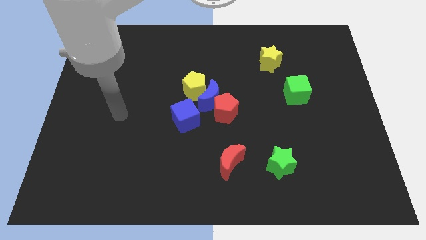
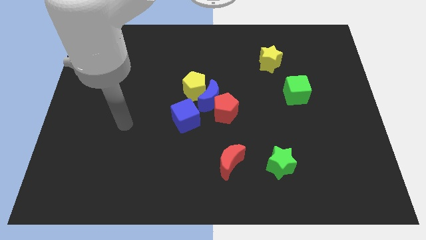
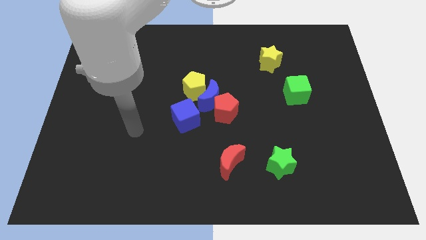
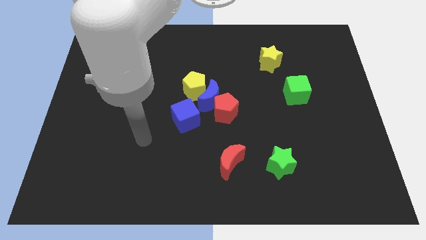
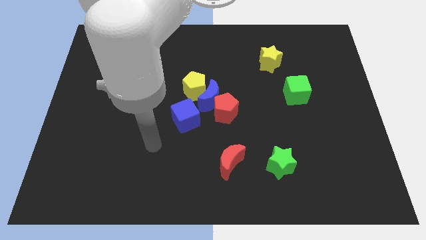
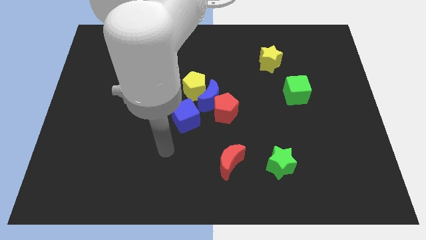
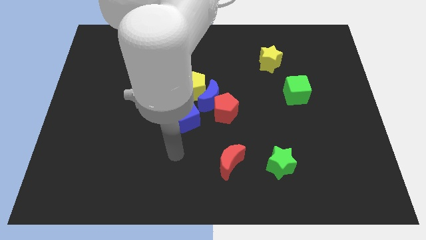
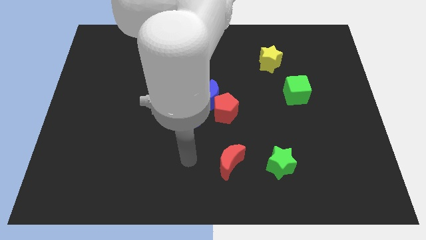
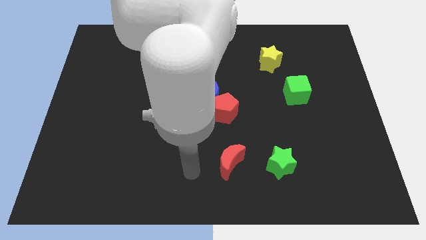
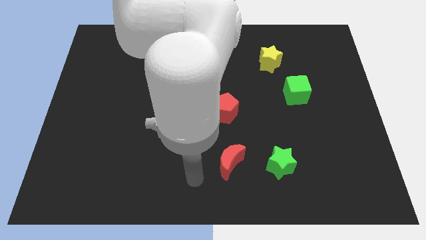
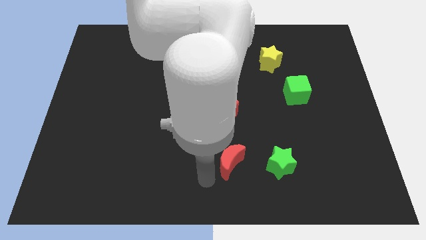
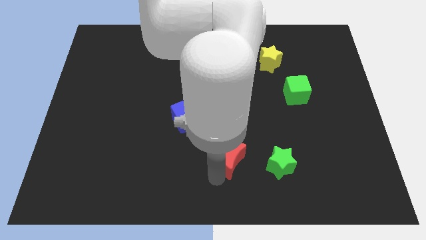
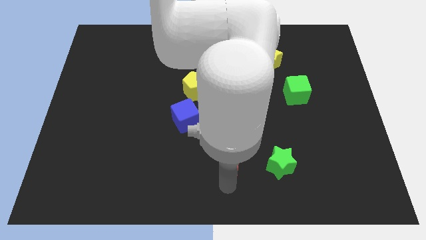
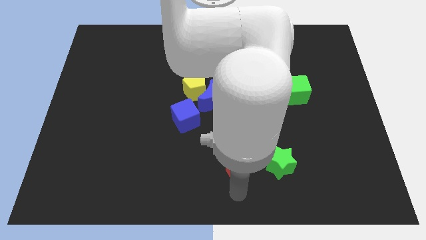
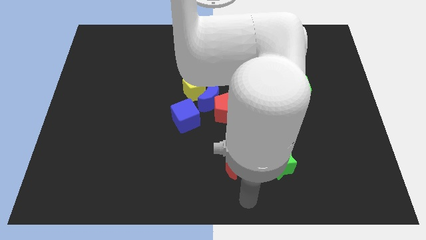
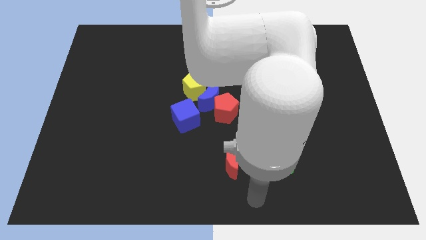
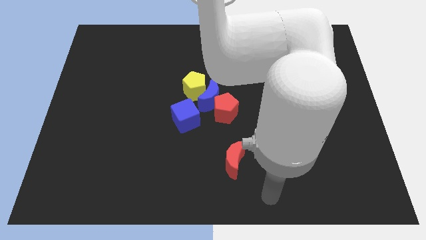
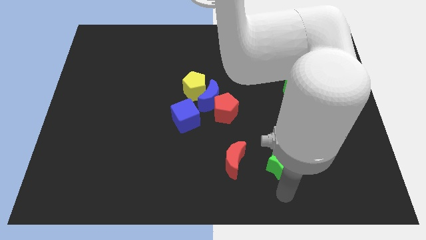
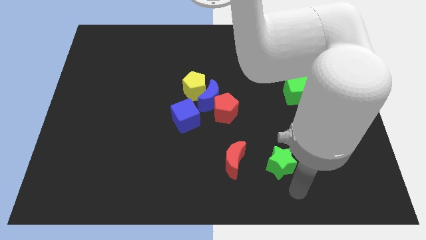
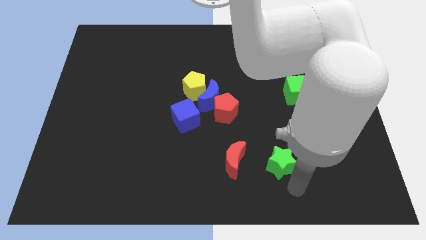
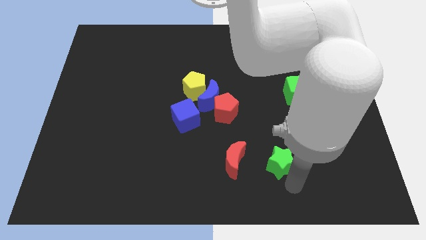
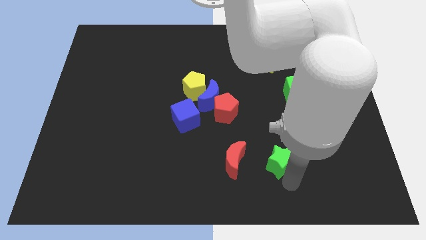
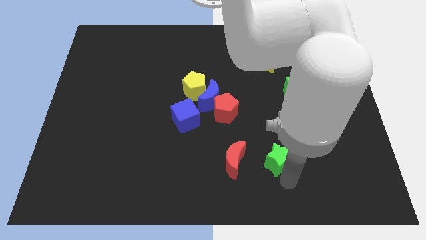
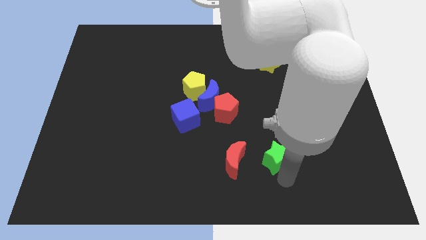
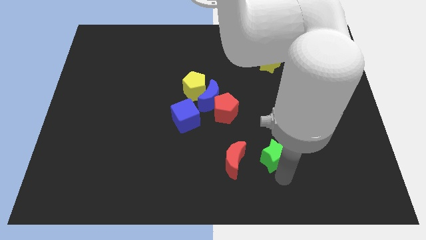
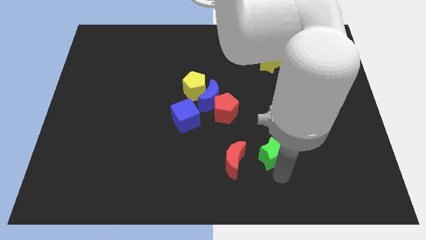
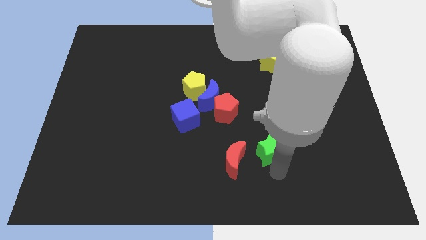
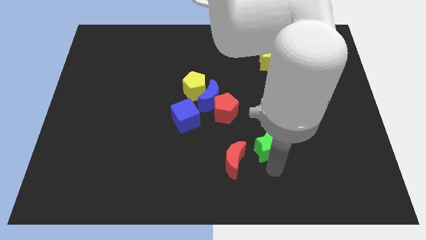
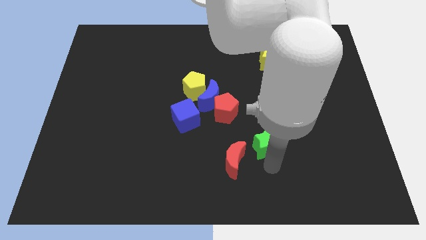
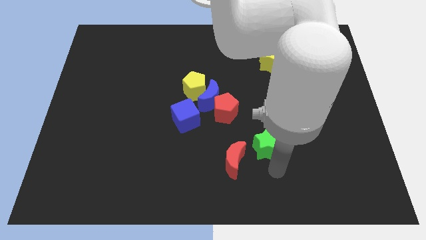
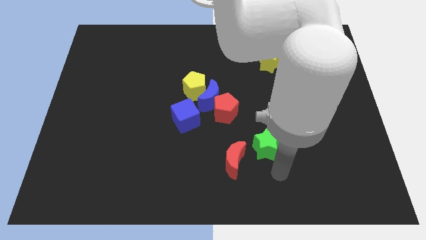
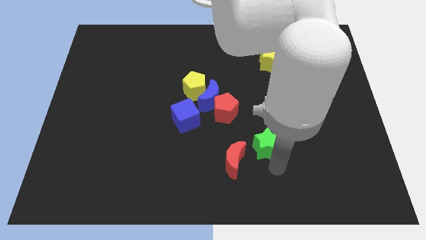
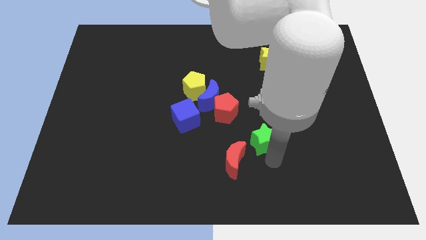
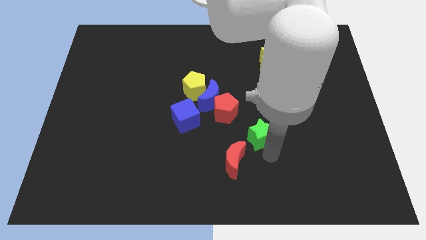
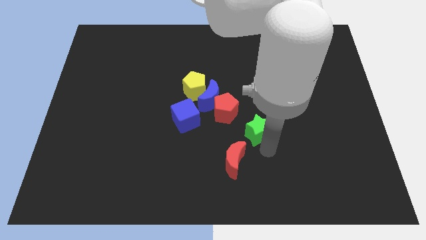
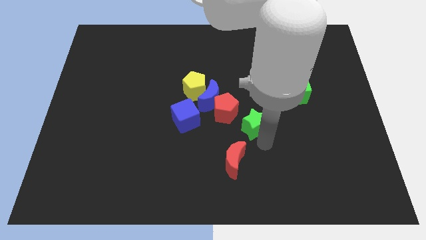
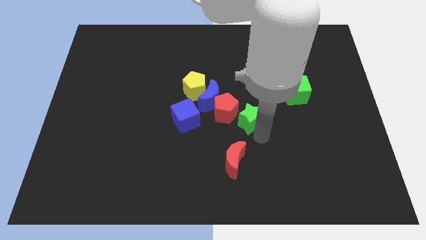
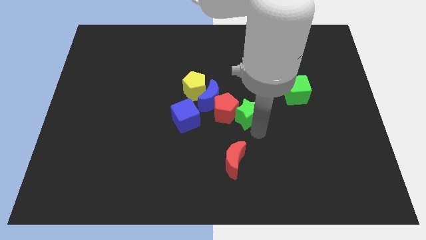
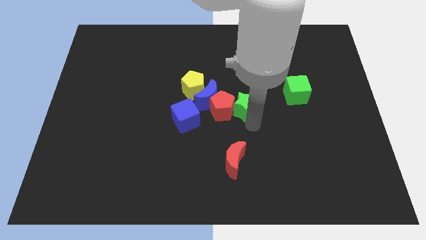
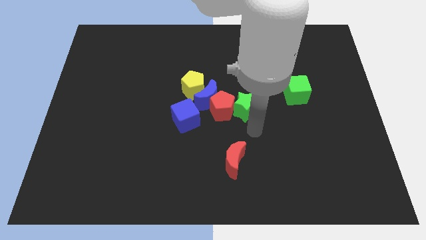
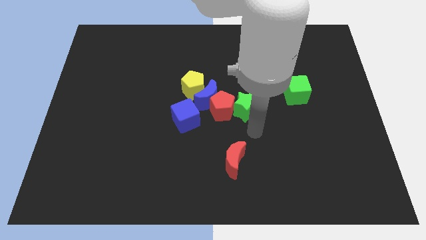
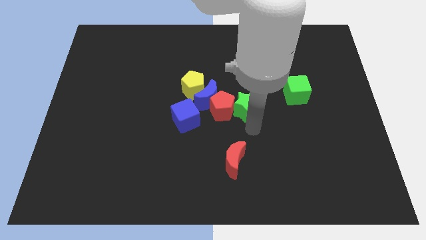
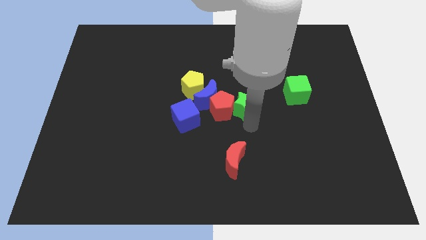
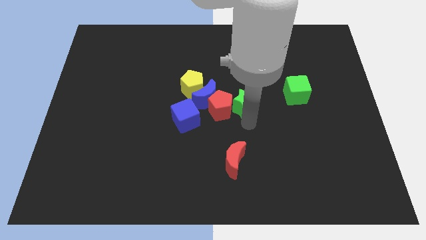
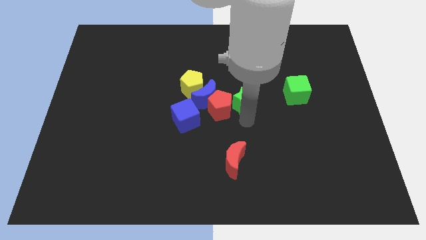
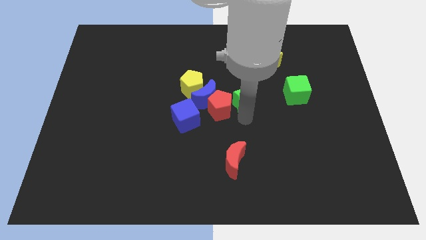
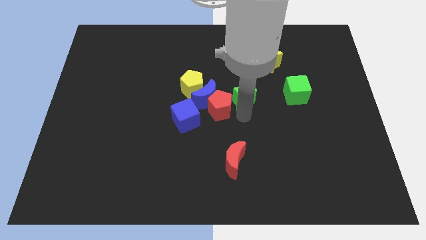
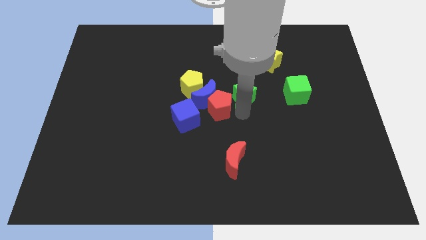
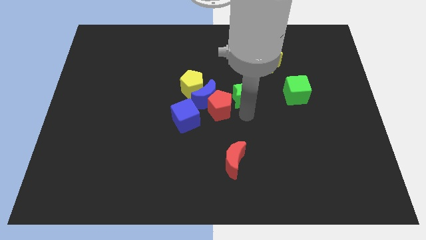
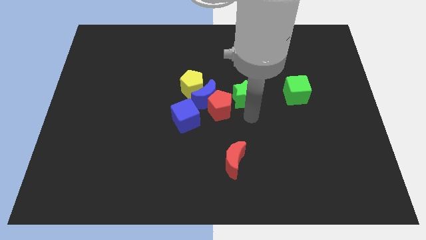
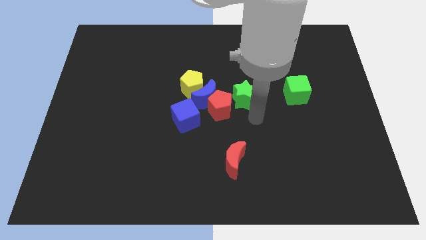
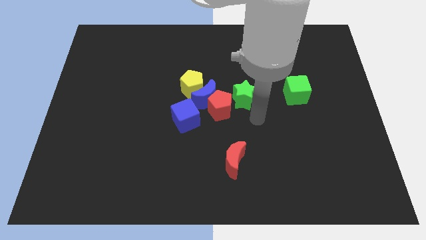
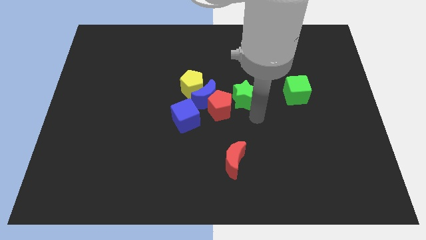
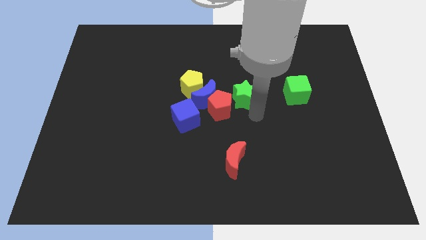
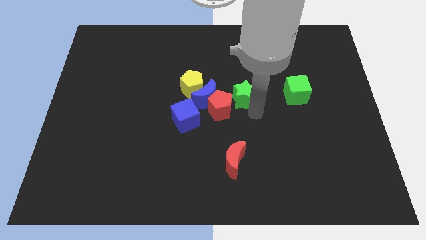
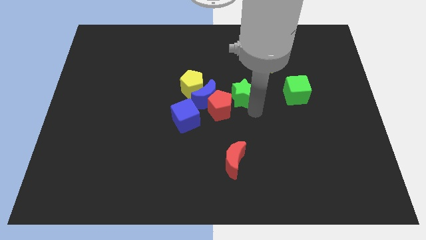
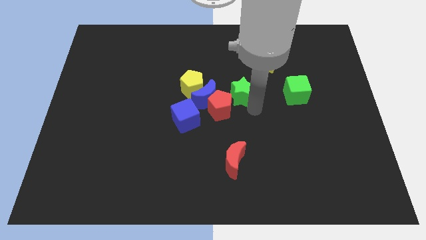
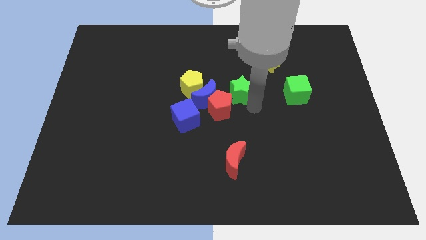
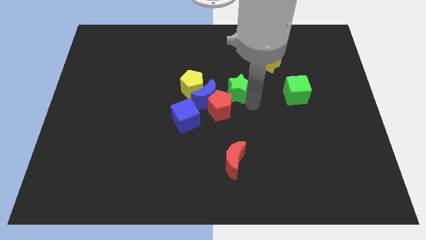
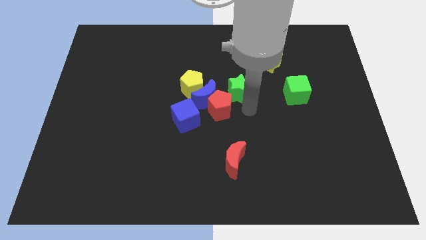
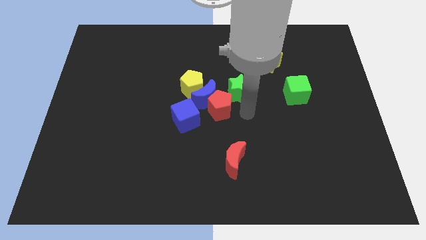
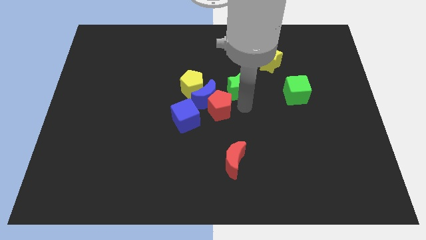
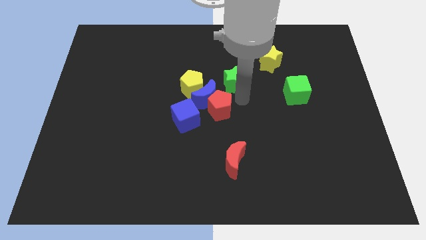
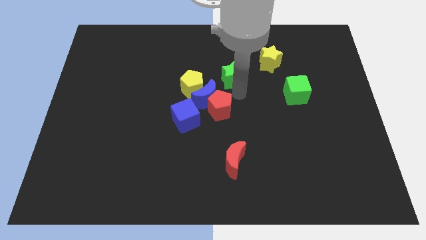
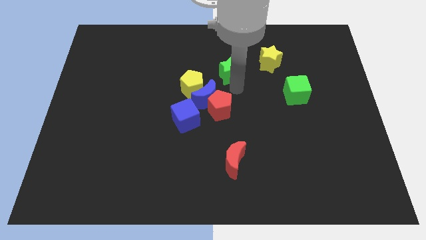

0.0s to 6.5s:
slide the green star to the left of the yellow star

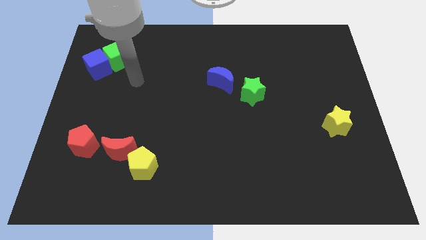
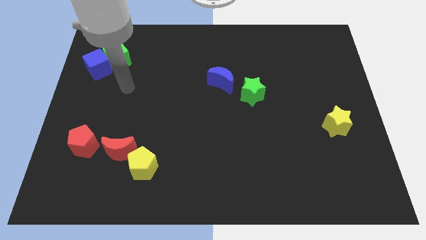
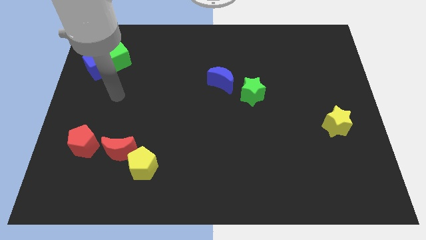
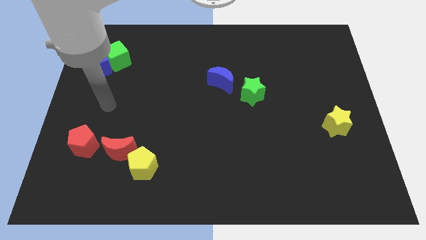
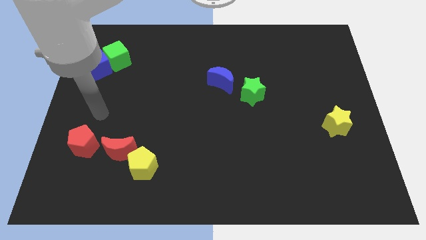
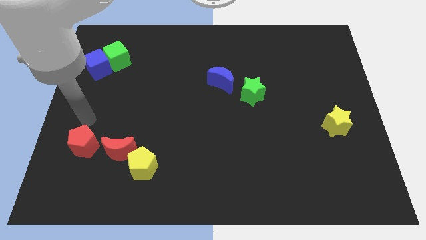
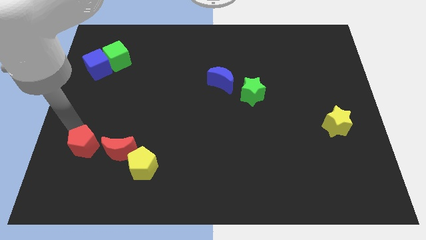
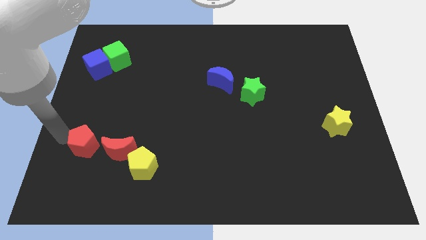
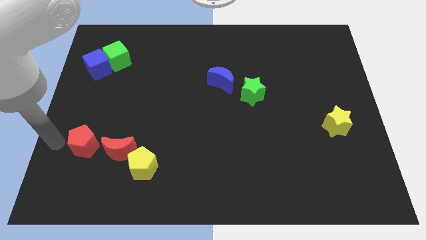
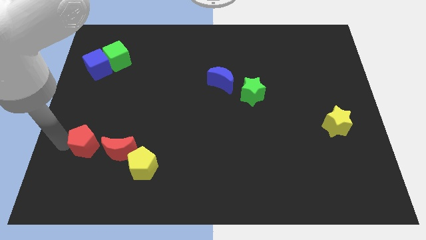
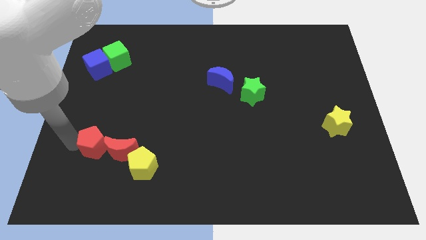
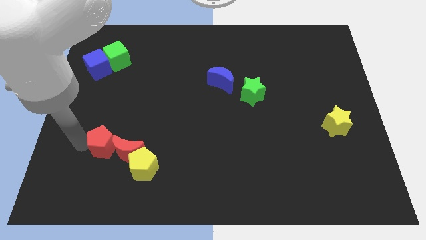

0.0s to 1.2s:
move the red pentagon to the top left of the yellow pentagon
